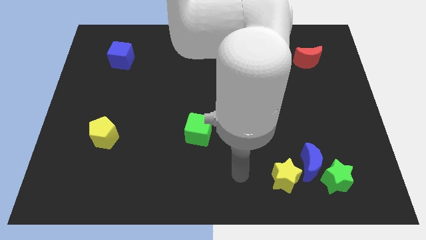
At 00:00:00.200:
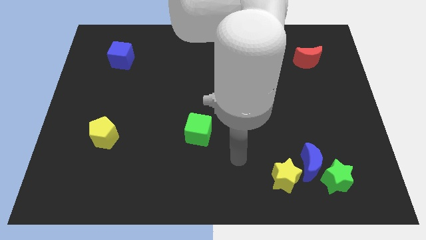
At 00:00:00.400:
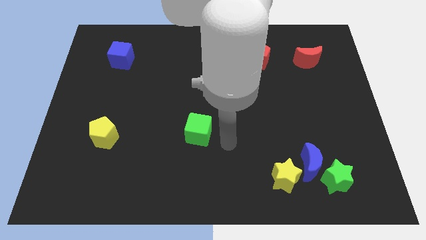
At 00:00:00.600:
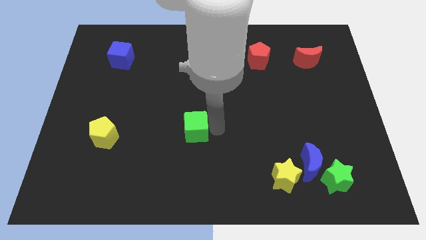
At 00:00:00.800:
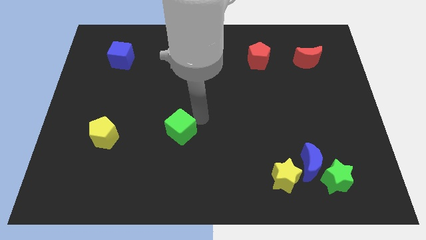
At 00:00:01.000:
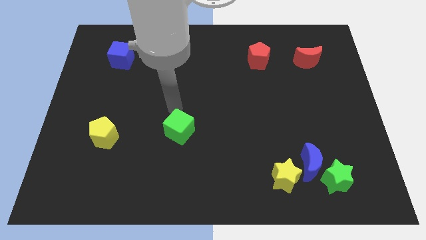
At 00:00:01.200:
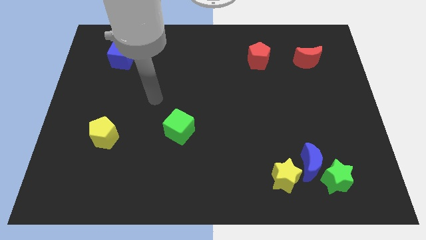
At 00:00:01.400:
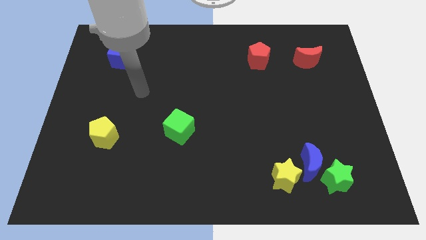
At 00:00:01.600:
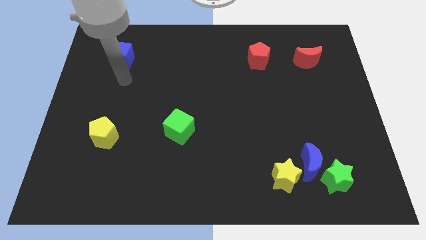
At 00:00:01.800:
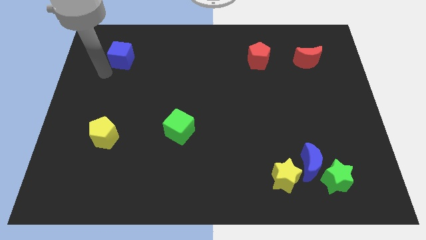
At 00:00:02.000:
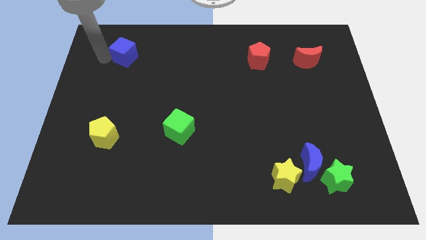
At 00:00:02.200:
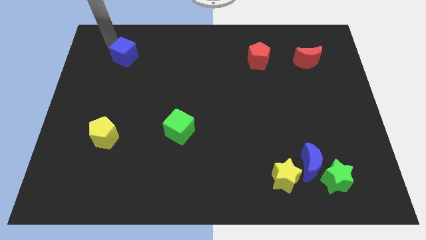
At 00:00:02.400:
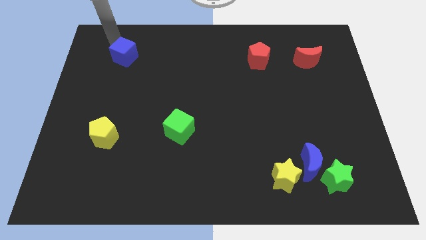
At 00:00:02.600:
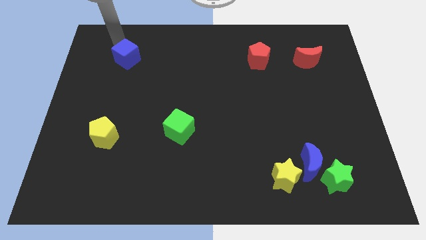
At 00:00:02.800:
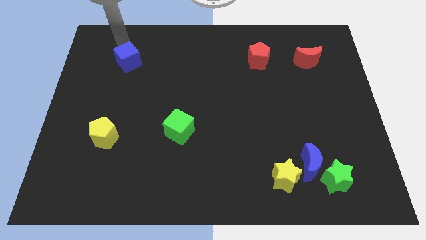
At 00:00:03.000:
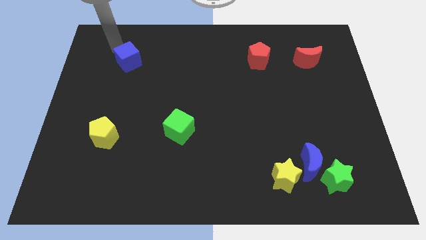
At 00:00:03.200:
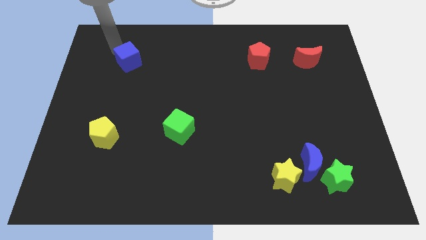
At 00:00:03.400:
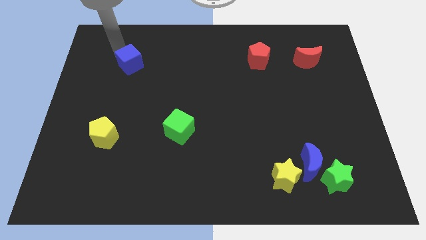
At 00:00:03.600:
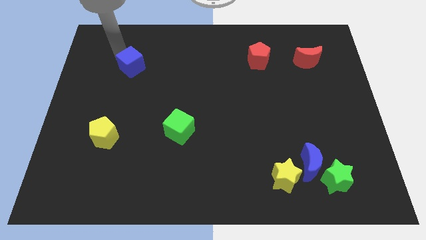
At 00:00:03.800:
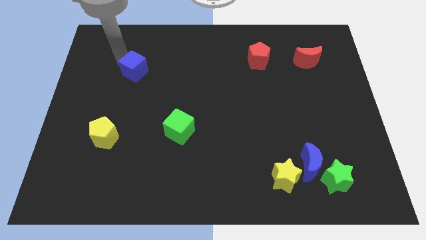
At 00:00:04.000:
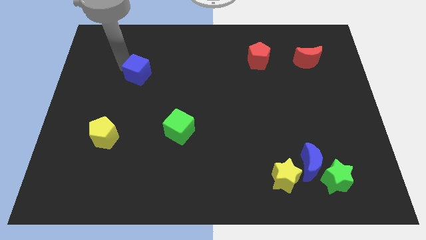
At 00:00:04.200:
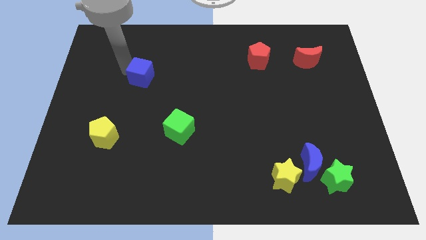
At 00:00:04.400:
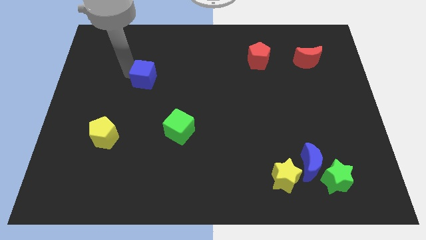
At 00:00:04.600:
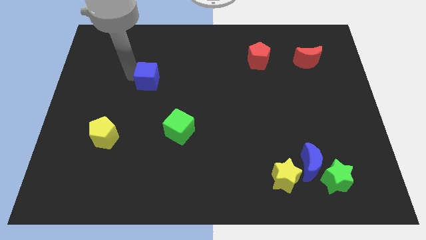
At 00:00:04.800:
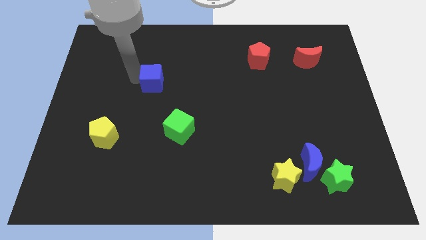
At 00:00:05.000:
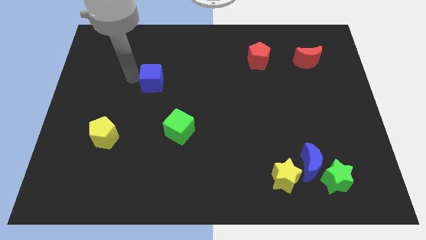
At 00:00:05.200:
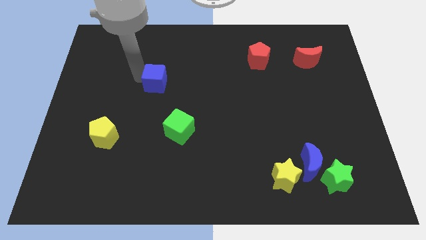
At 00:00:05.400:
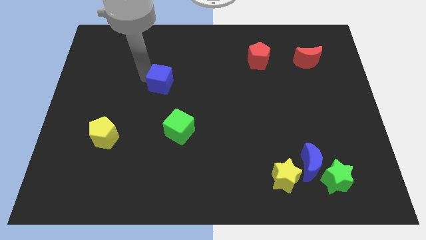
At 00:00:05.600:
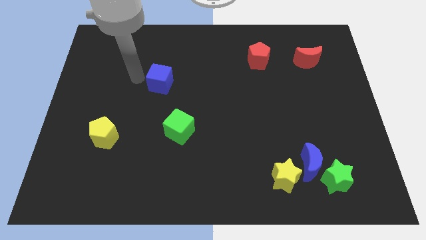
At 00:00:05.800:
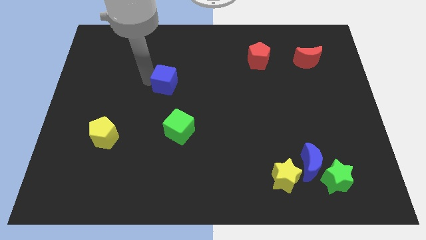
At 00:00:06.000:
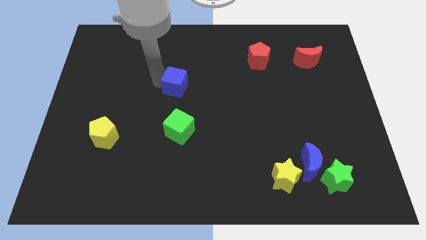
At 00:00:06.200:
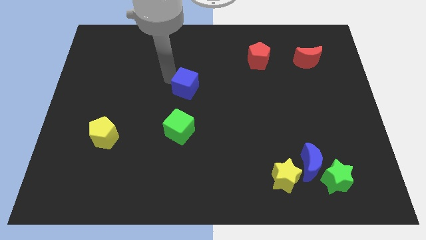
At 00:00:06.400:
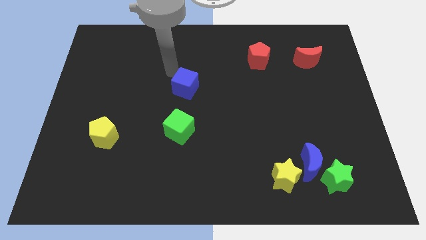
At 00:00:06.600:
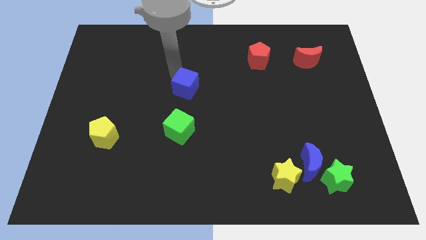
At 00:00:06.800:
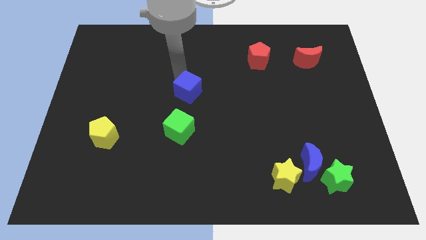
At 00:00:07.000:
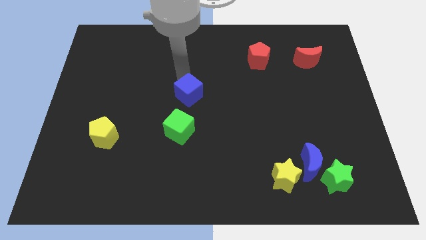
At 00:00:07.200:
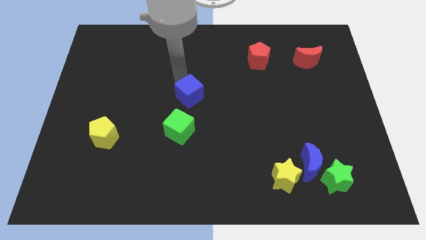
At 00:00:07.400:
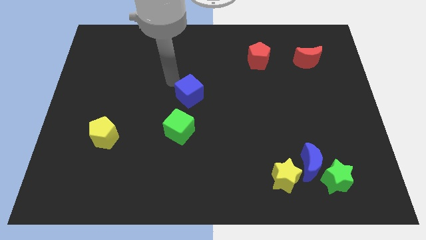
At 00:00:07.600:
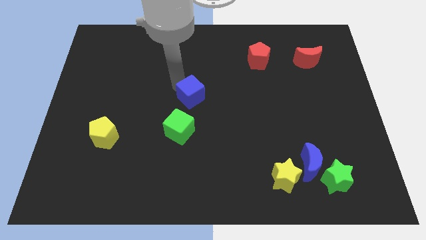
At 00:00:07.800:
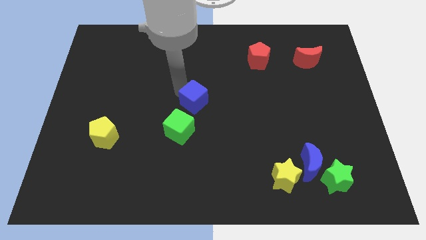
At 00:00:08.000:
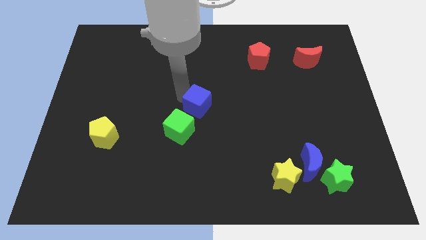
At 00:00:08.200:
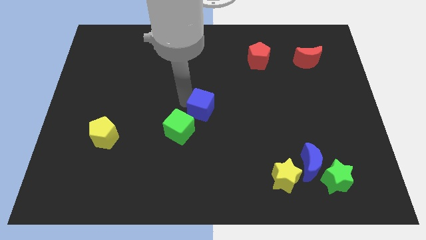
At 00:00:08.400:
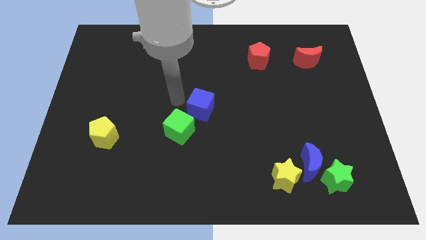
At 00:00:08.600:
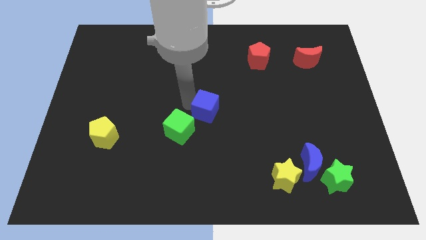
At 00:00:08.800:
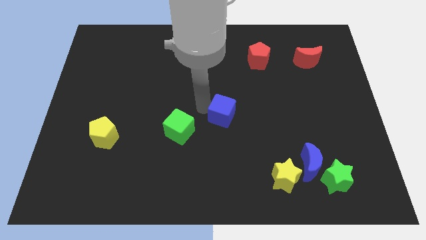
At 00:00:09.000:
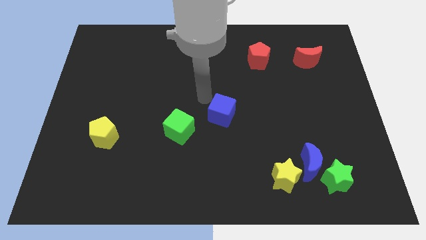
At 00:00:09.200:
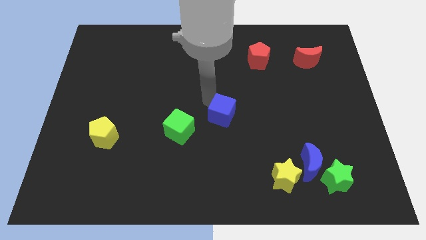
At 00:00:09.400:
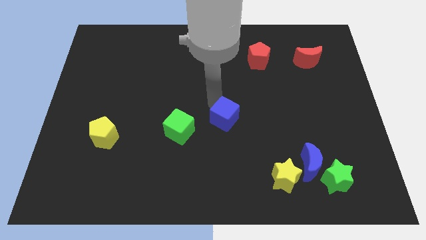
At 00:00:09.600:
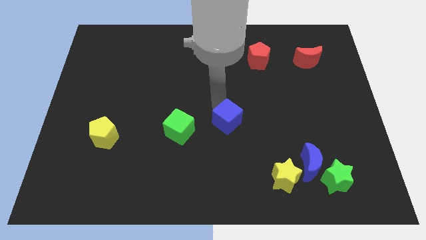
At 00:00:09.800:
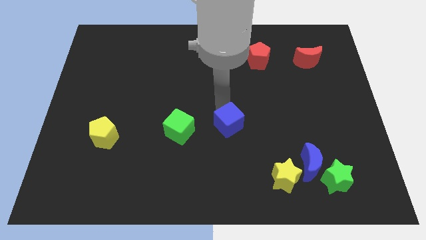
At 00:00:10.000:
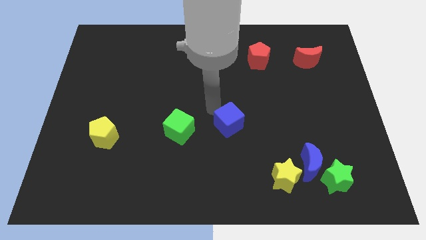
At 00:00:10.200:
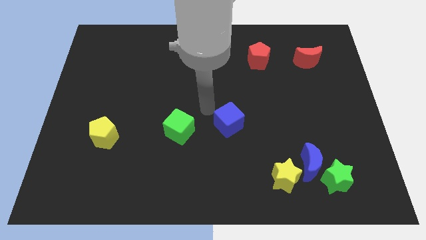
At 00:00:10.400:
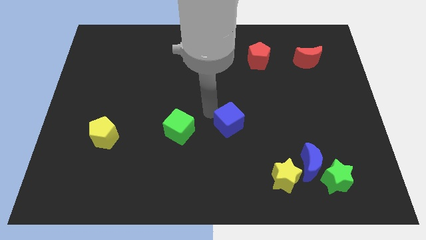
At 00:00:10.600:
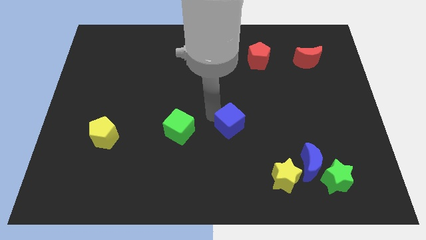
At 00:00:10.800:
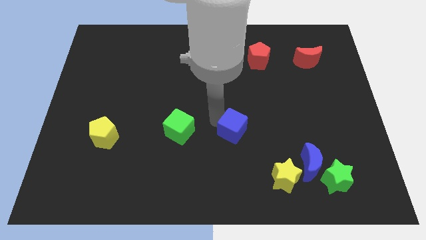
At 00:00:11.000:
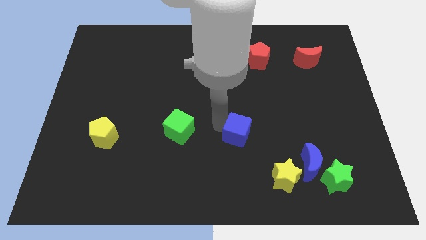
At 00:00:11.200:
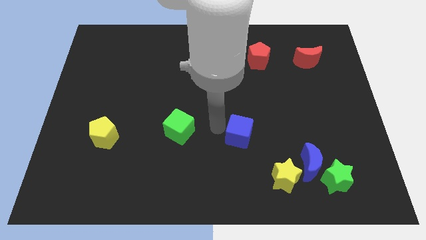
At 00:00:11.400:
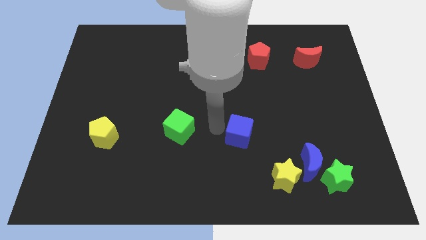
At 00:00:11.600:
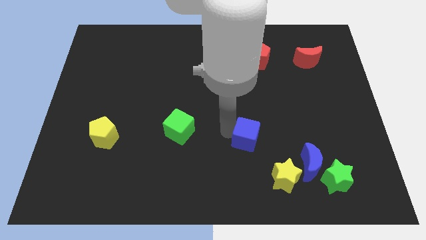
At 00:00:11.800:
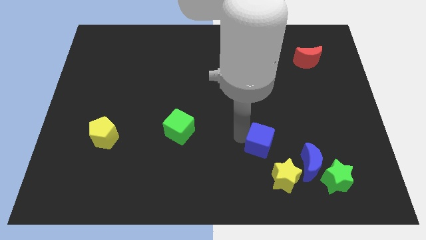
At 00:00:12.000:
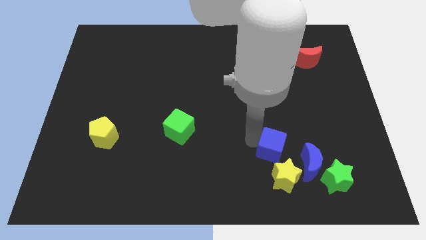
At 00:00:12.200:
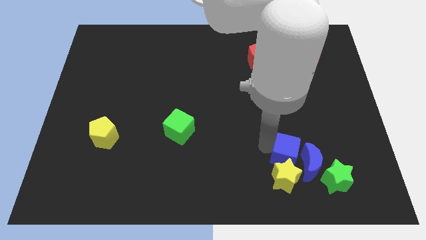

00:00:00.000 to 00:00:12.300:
push the blue cube next to the blue moon

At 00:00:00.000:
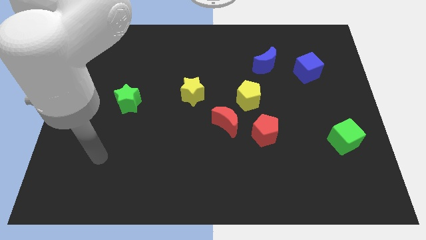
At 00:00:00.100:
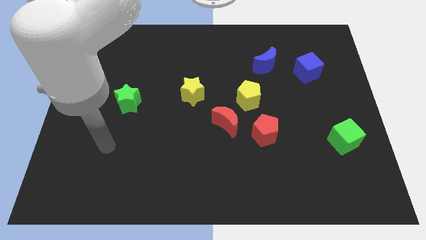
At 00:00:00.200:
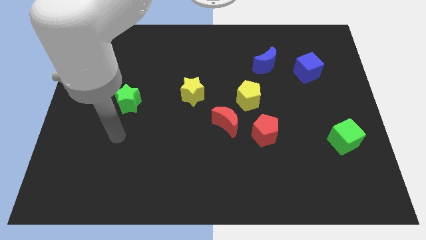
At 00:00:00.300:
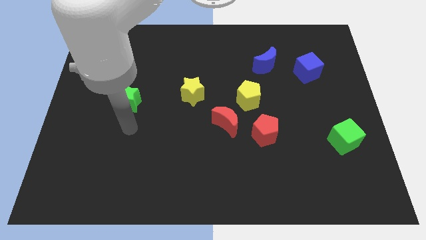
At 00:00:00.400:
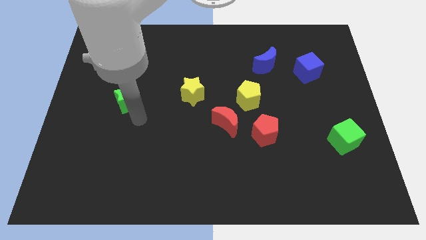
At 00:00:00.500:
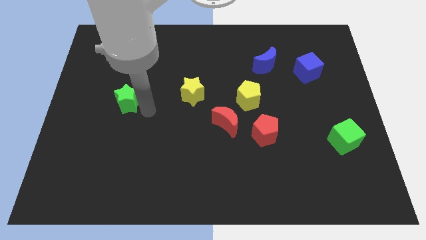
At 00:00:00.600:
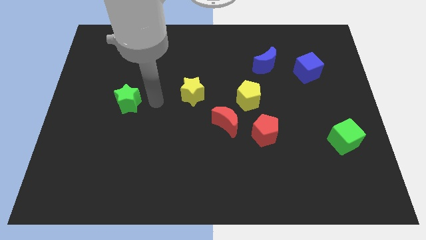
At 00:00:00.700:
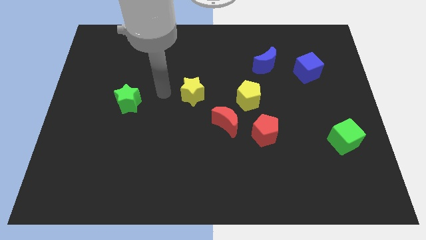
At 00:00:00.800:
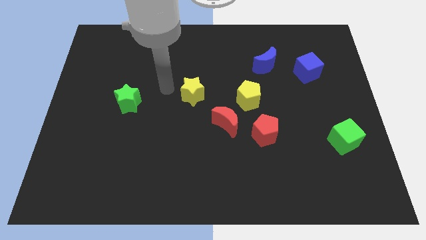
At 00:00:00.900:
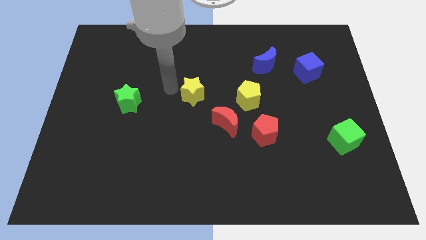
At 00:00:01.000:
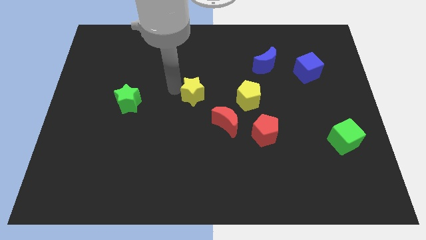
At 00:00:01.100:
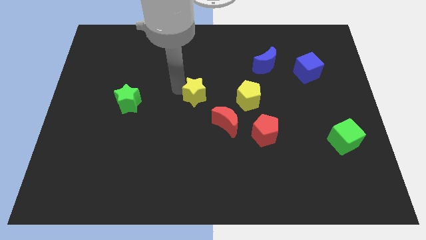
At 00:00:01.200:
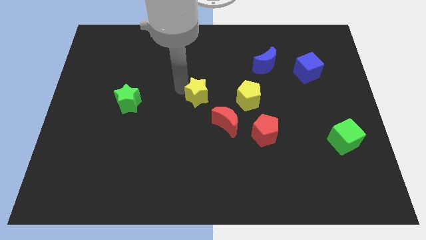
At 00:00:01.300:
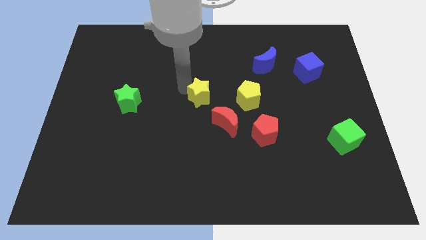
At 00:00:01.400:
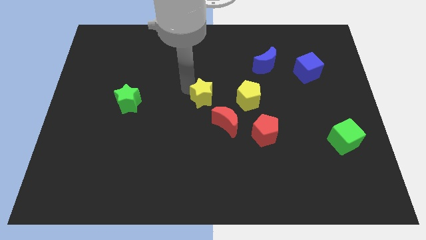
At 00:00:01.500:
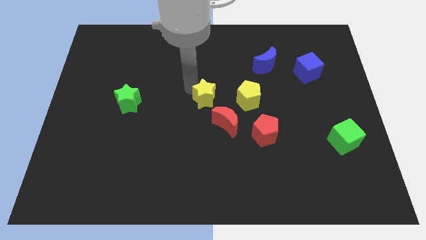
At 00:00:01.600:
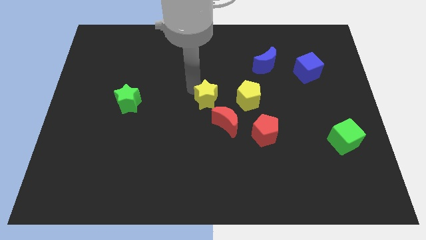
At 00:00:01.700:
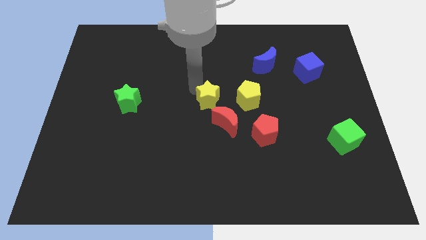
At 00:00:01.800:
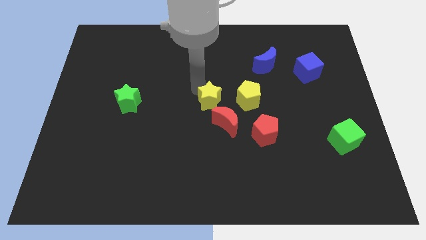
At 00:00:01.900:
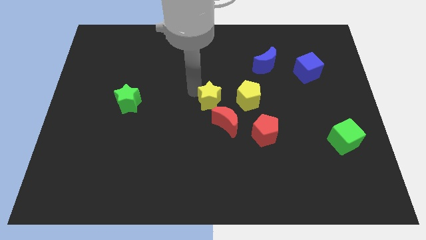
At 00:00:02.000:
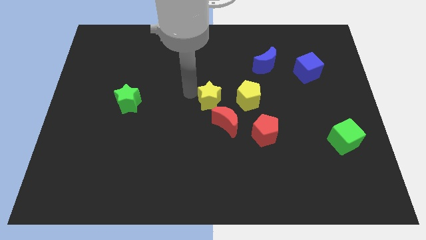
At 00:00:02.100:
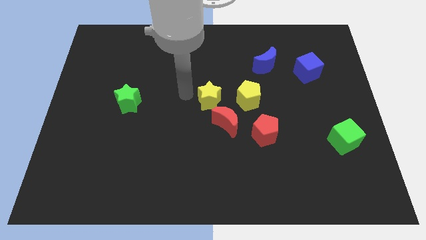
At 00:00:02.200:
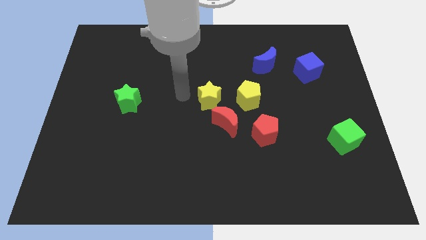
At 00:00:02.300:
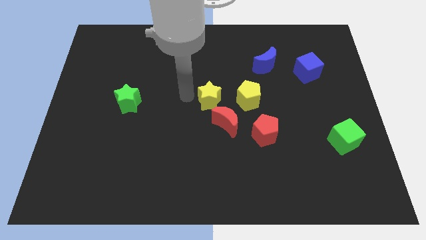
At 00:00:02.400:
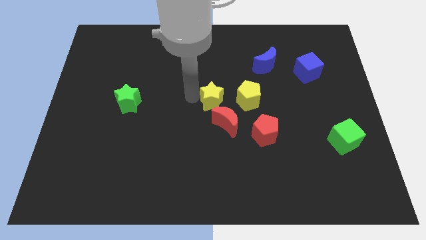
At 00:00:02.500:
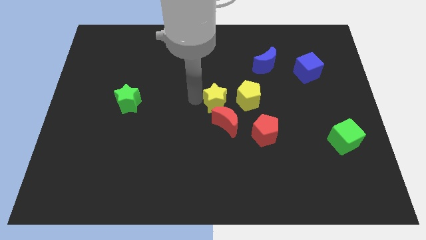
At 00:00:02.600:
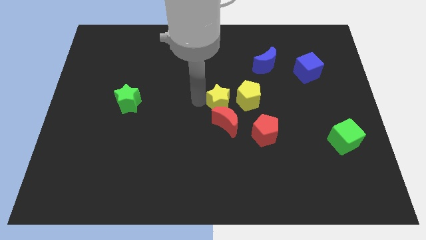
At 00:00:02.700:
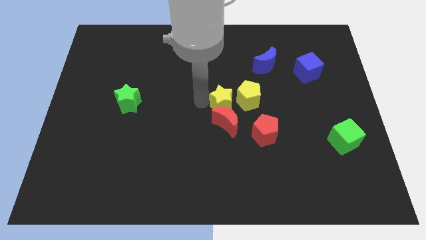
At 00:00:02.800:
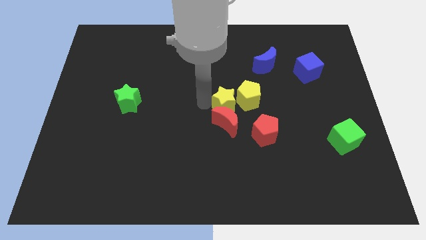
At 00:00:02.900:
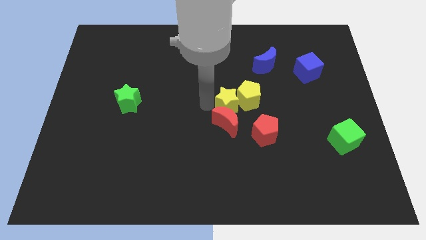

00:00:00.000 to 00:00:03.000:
slide the yellow star next to the yellow pentagon
